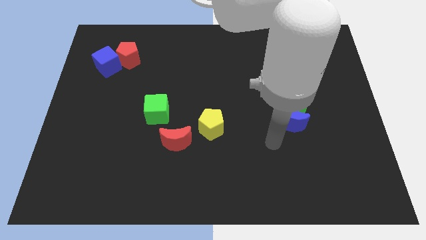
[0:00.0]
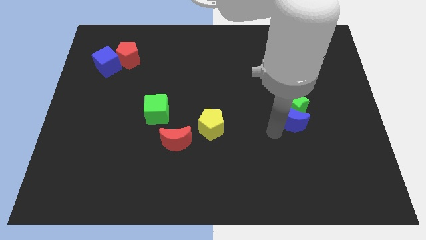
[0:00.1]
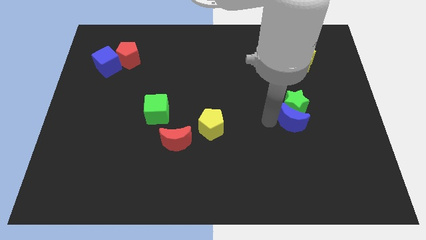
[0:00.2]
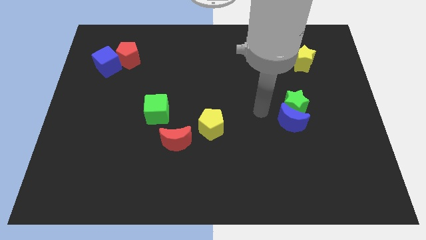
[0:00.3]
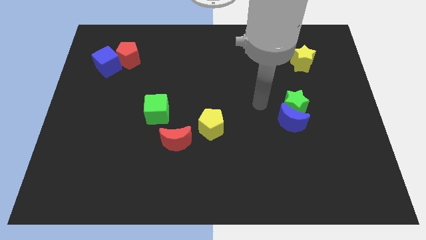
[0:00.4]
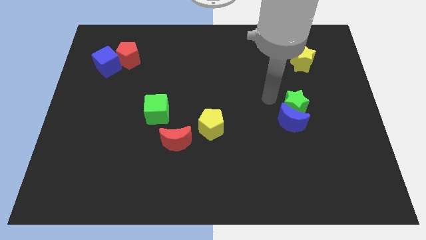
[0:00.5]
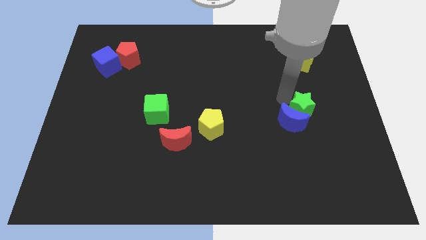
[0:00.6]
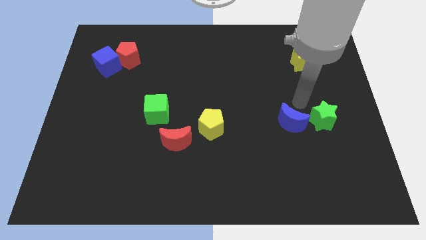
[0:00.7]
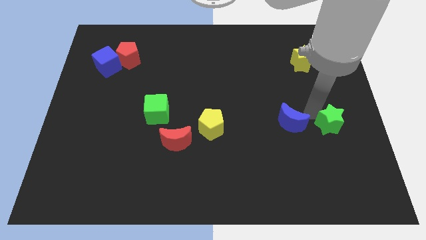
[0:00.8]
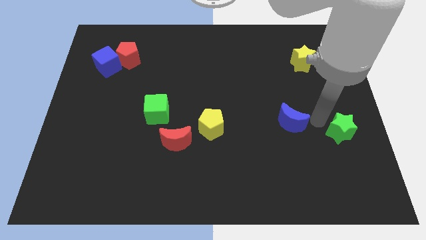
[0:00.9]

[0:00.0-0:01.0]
pull the blue moon apart from the green star

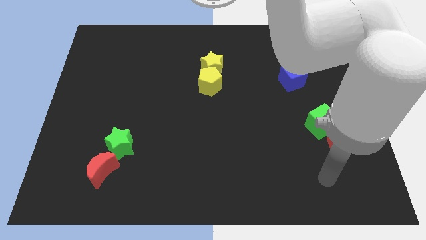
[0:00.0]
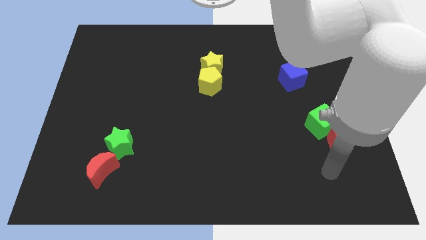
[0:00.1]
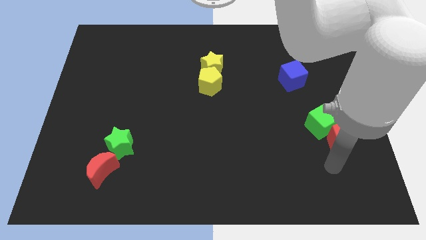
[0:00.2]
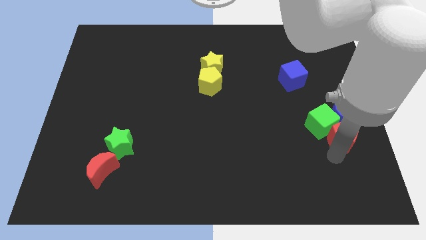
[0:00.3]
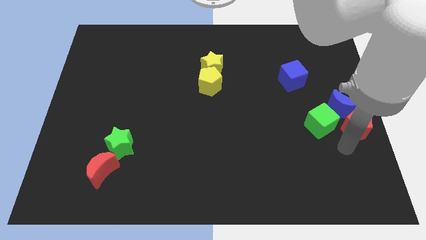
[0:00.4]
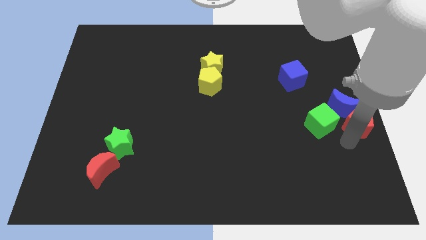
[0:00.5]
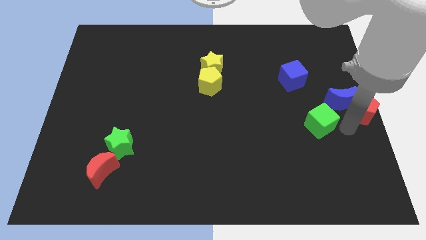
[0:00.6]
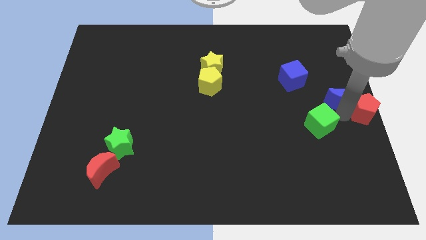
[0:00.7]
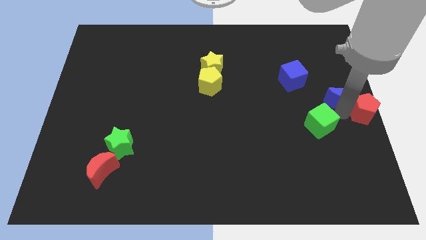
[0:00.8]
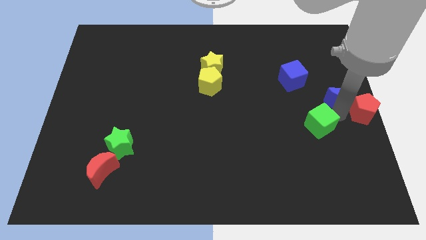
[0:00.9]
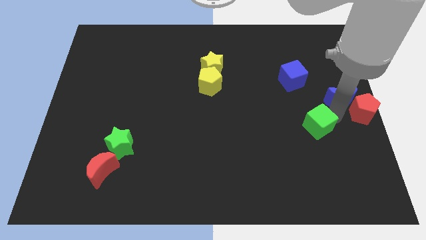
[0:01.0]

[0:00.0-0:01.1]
pull the green cube apart from the blue moon and red pentagon

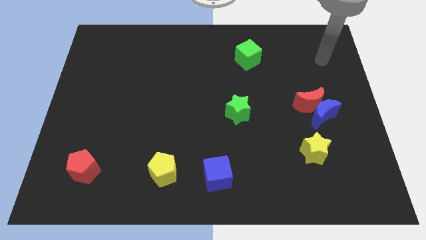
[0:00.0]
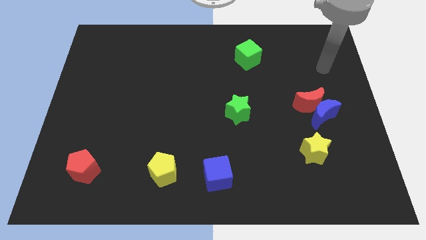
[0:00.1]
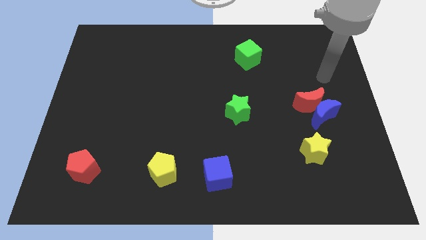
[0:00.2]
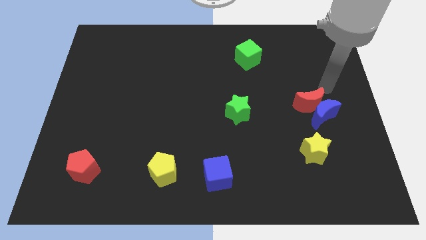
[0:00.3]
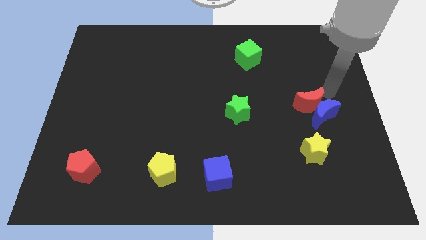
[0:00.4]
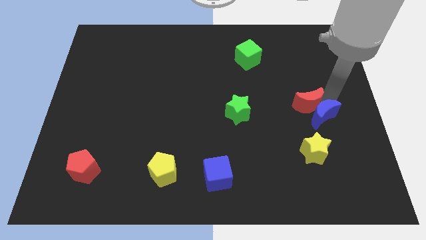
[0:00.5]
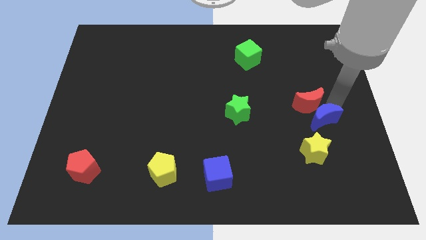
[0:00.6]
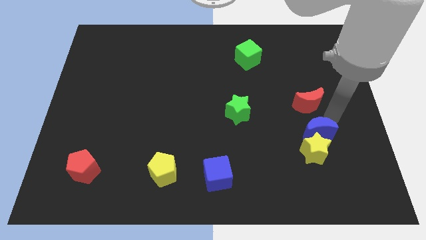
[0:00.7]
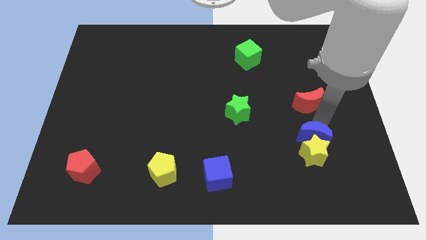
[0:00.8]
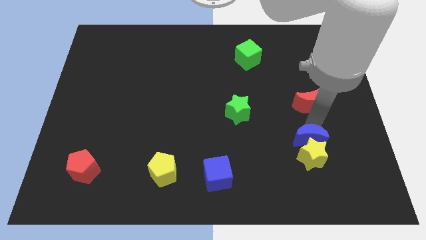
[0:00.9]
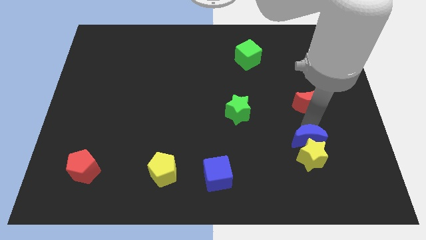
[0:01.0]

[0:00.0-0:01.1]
separate the red moon from the blue moon

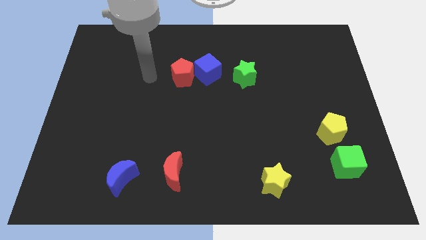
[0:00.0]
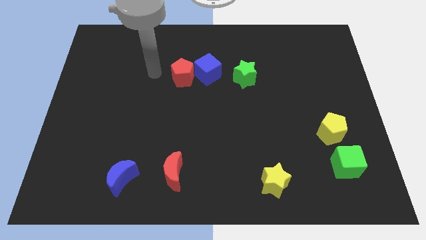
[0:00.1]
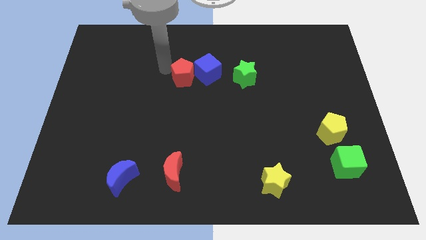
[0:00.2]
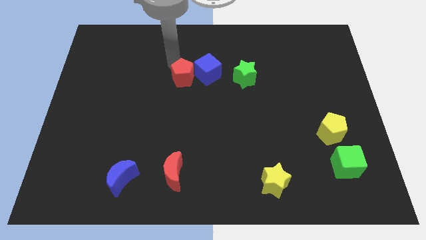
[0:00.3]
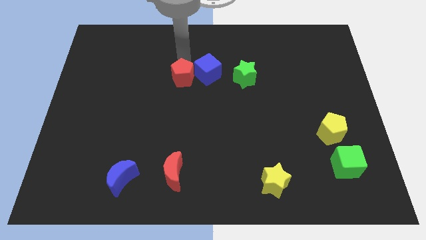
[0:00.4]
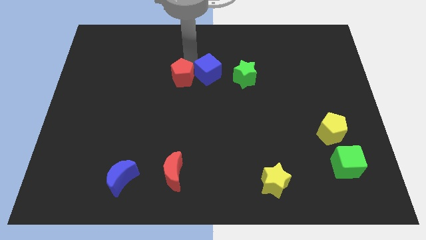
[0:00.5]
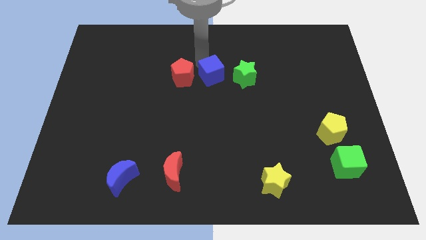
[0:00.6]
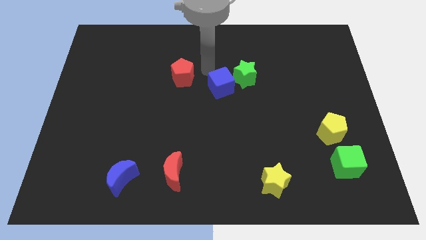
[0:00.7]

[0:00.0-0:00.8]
pull the red pentagon apart from the blue cube

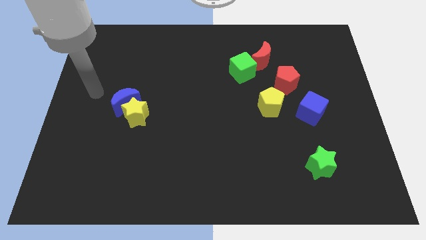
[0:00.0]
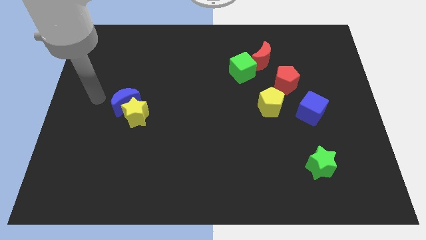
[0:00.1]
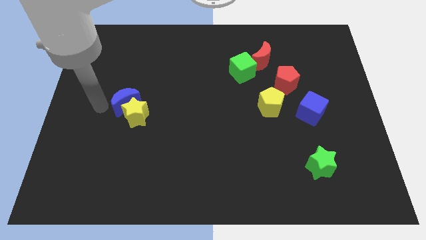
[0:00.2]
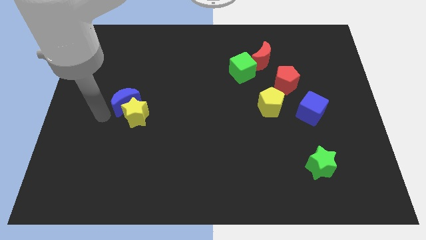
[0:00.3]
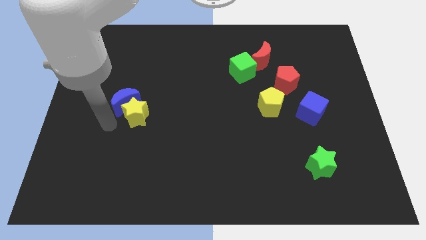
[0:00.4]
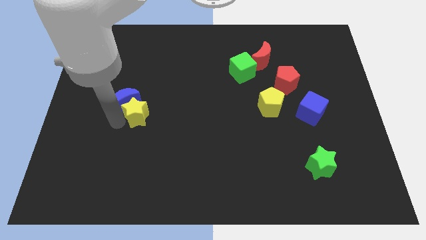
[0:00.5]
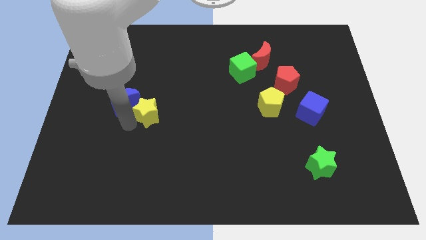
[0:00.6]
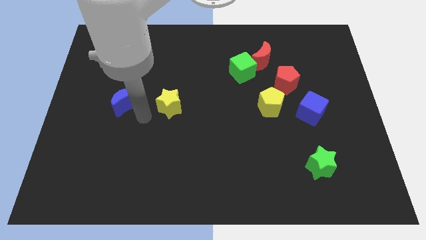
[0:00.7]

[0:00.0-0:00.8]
separate the blue moon from the yellow star

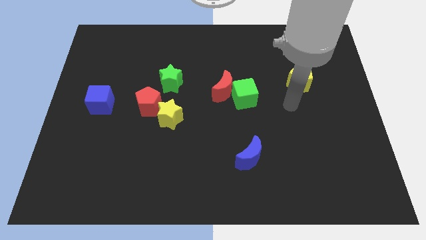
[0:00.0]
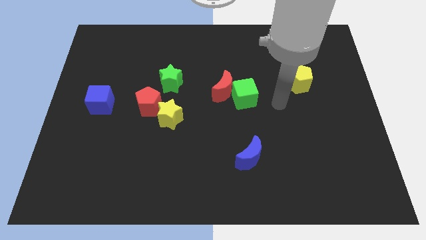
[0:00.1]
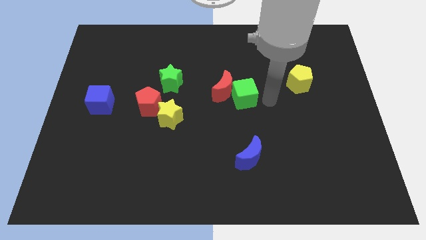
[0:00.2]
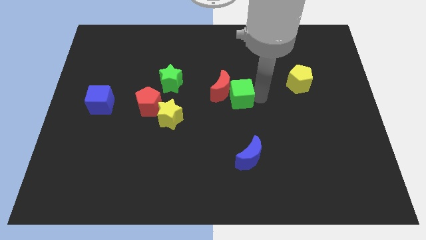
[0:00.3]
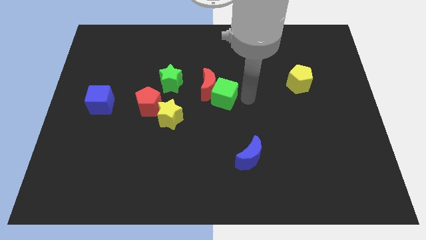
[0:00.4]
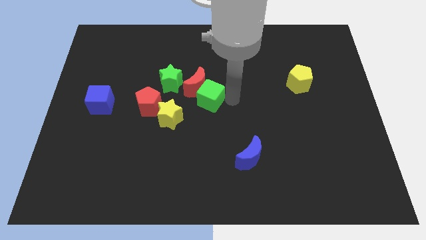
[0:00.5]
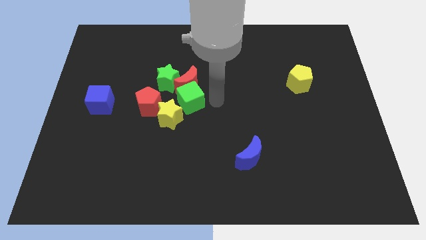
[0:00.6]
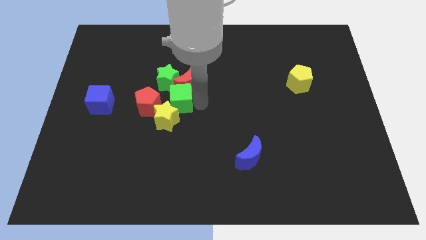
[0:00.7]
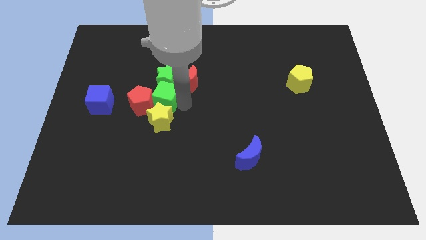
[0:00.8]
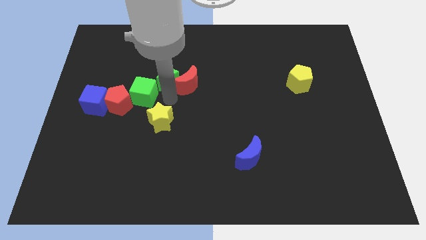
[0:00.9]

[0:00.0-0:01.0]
separate the red moon from the green cube

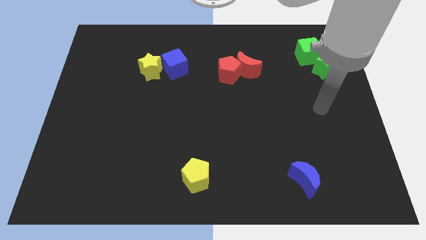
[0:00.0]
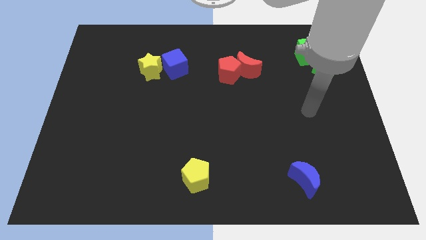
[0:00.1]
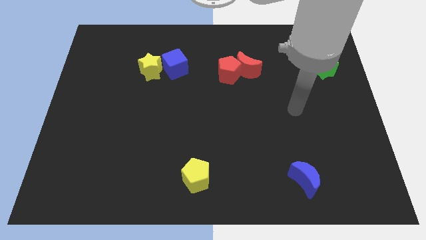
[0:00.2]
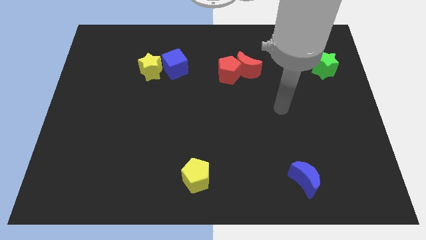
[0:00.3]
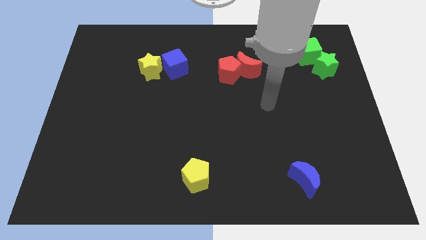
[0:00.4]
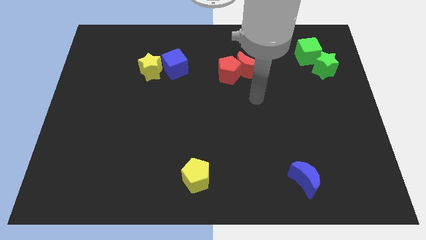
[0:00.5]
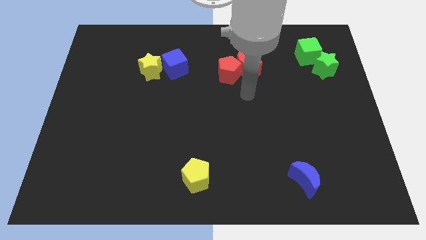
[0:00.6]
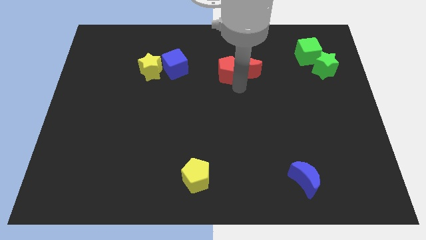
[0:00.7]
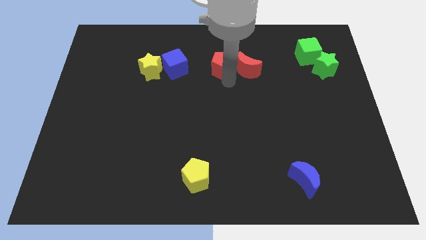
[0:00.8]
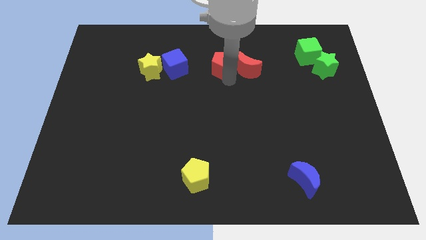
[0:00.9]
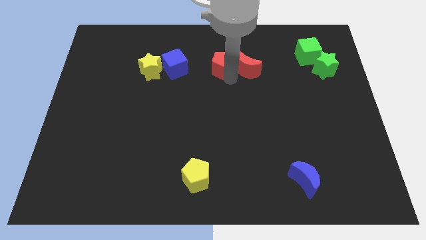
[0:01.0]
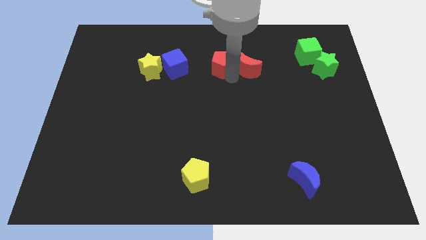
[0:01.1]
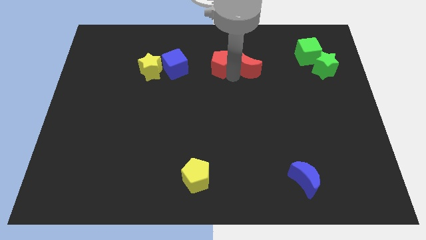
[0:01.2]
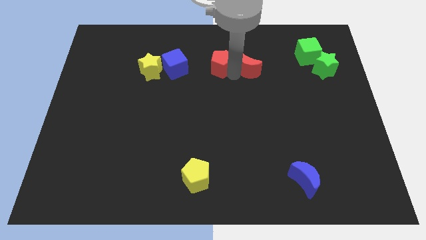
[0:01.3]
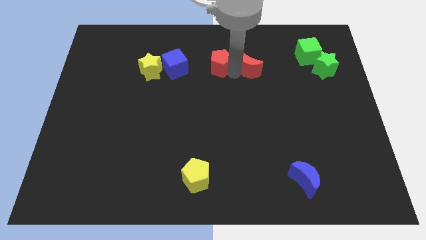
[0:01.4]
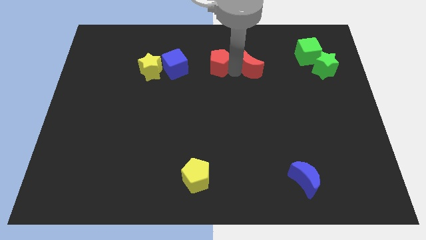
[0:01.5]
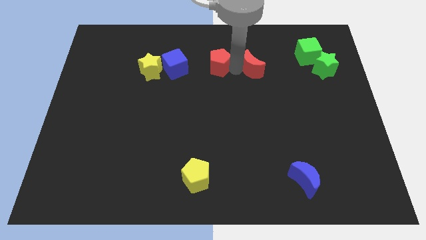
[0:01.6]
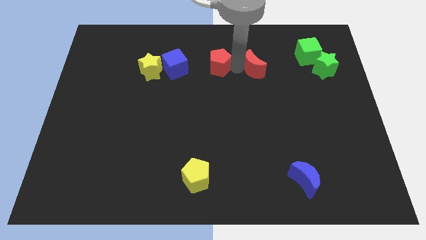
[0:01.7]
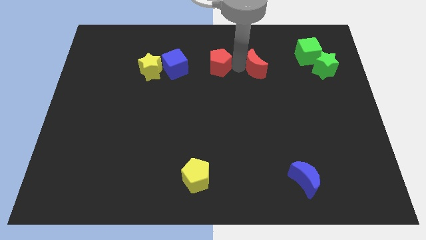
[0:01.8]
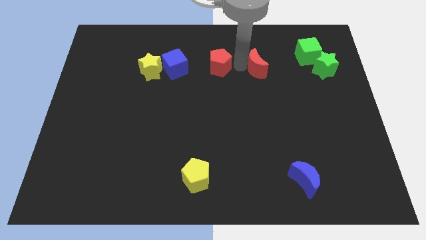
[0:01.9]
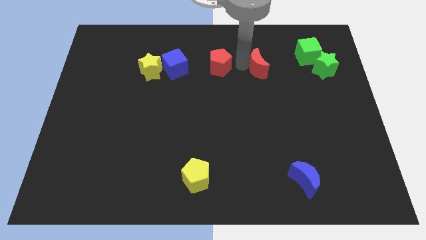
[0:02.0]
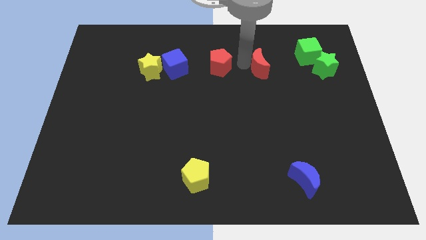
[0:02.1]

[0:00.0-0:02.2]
separate the red moon from the red pentagon

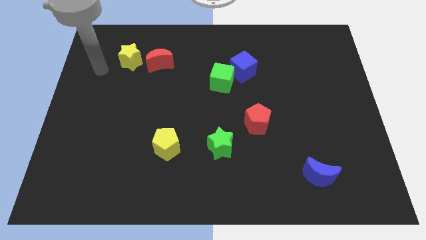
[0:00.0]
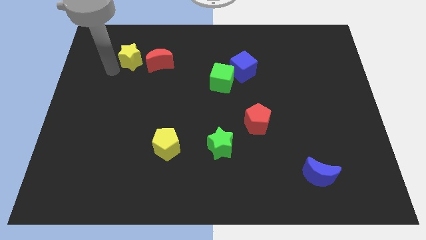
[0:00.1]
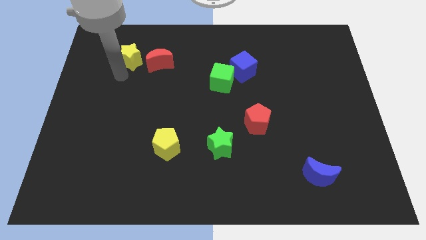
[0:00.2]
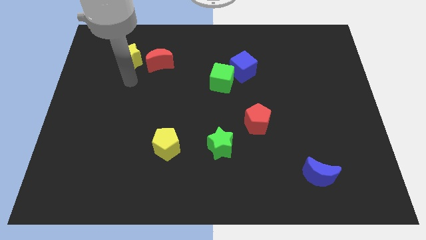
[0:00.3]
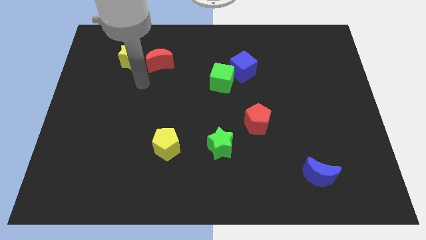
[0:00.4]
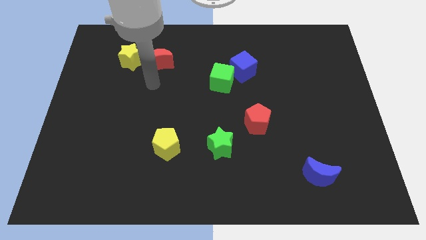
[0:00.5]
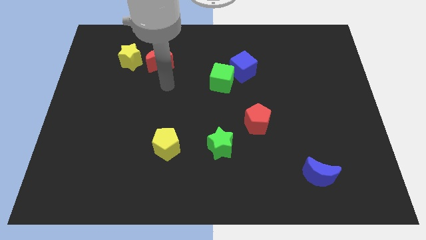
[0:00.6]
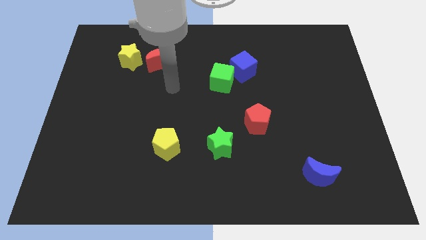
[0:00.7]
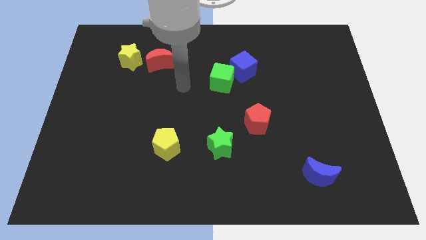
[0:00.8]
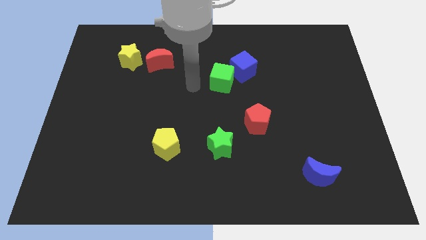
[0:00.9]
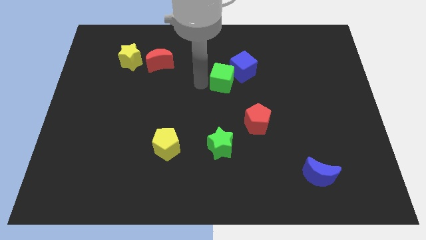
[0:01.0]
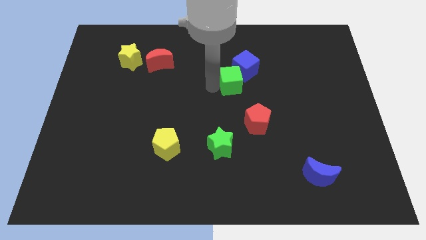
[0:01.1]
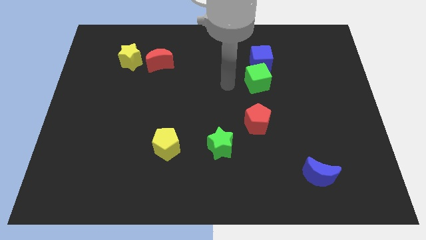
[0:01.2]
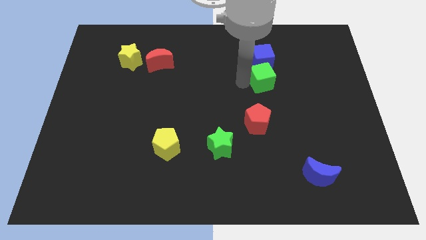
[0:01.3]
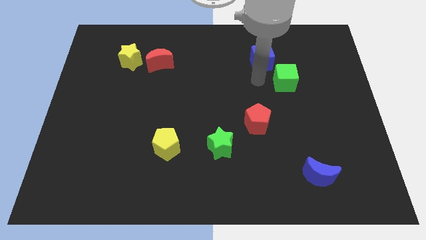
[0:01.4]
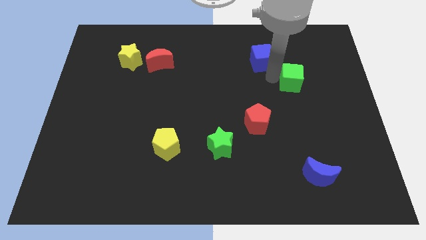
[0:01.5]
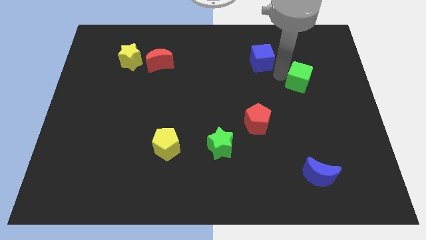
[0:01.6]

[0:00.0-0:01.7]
move the blue cube away from the green cube
